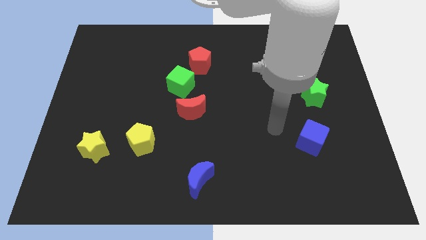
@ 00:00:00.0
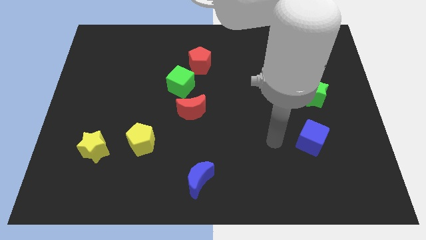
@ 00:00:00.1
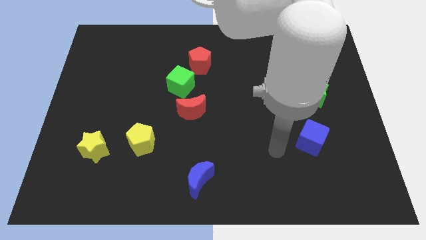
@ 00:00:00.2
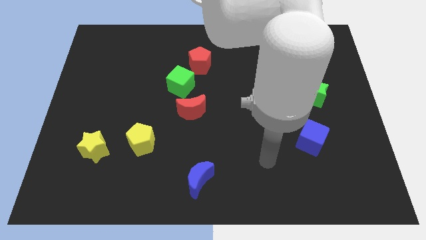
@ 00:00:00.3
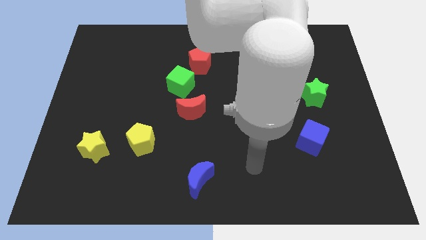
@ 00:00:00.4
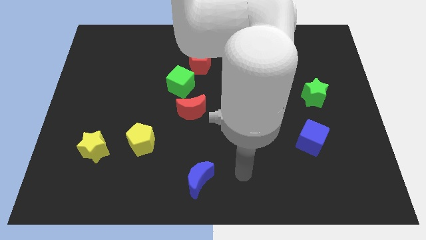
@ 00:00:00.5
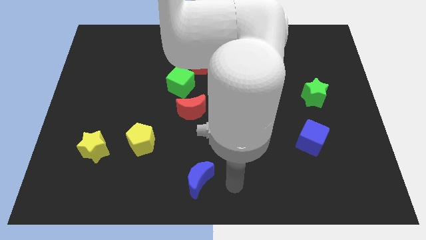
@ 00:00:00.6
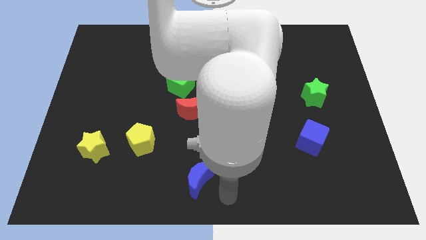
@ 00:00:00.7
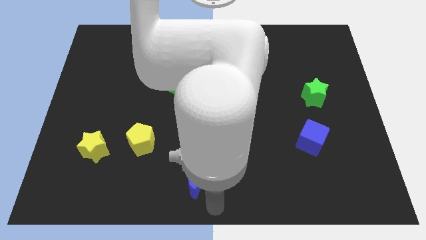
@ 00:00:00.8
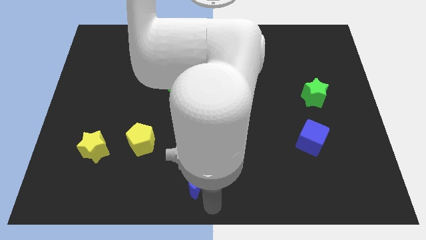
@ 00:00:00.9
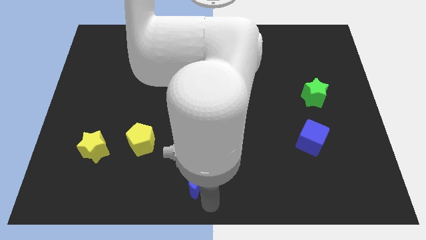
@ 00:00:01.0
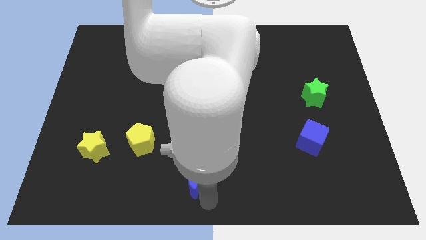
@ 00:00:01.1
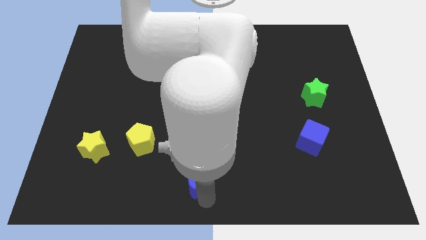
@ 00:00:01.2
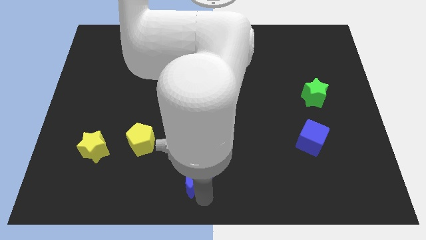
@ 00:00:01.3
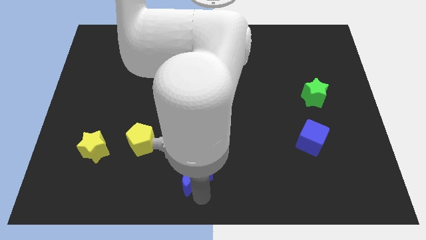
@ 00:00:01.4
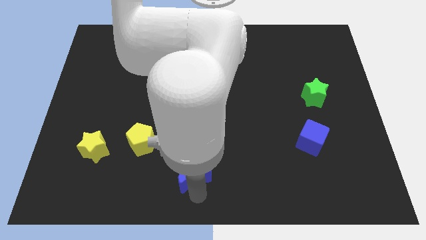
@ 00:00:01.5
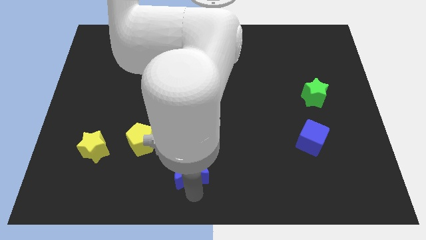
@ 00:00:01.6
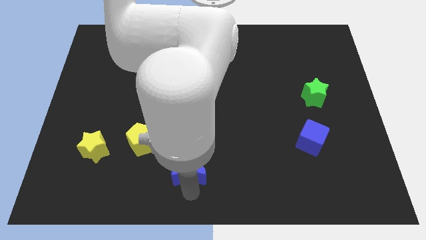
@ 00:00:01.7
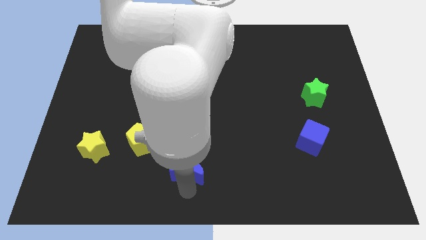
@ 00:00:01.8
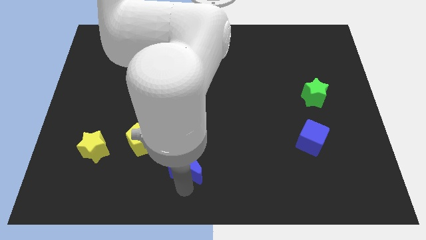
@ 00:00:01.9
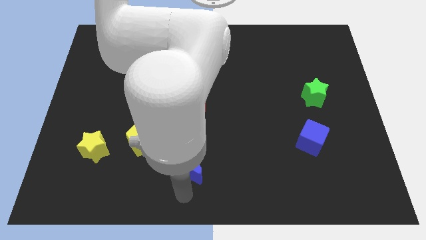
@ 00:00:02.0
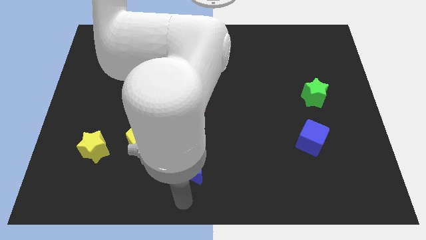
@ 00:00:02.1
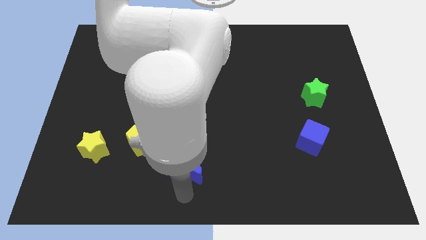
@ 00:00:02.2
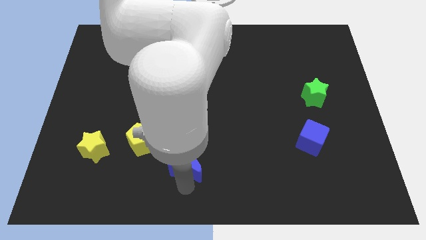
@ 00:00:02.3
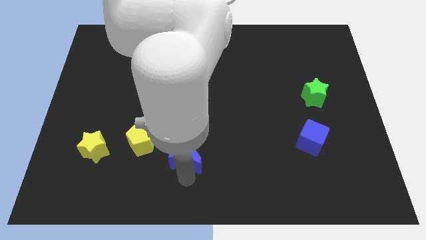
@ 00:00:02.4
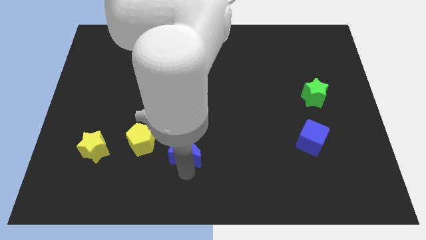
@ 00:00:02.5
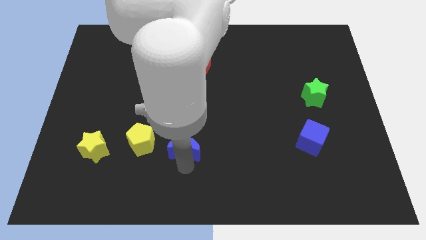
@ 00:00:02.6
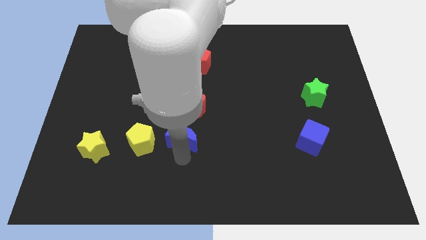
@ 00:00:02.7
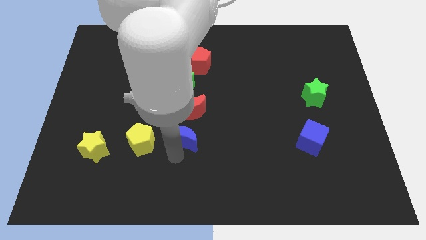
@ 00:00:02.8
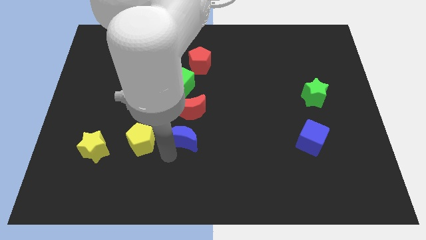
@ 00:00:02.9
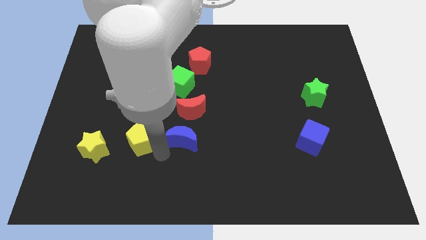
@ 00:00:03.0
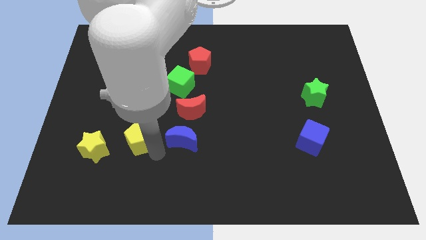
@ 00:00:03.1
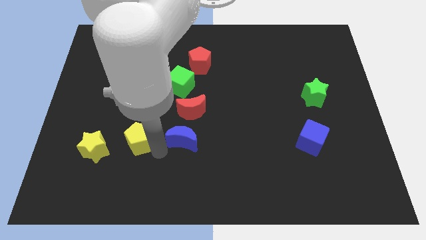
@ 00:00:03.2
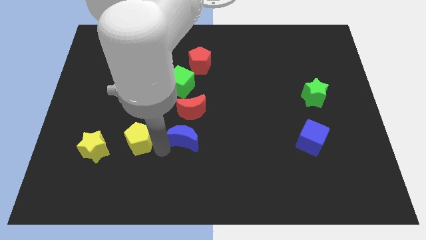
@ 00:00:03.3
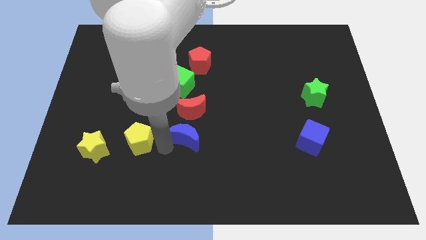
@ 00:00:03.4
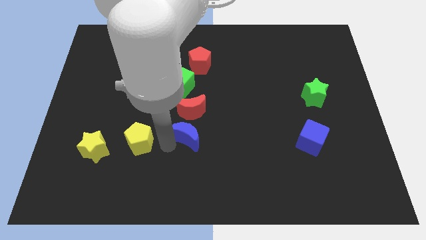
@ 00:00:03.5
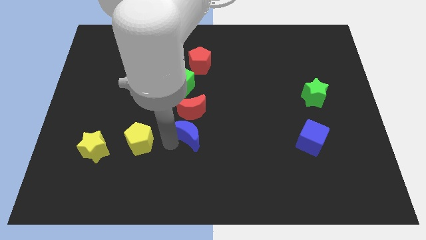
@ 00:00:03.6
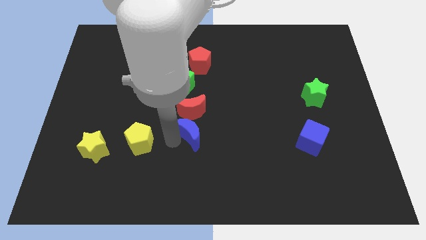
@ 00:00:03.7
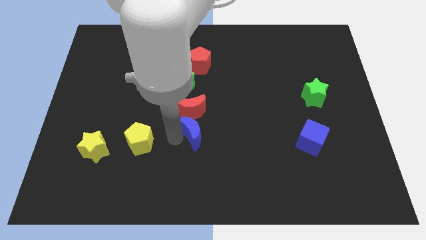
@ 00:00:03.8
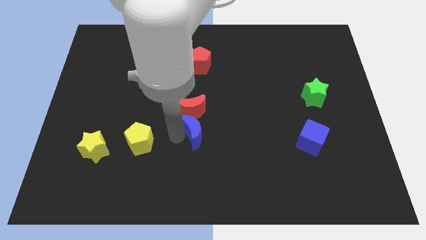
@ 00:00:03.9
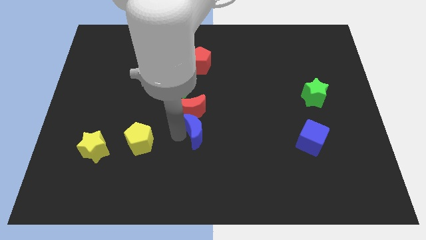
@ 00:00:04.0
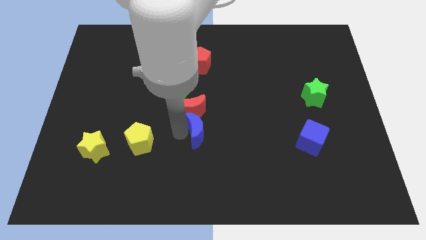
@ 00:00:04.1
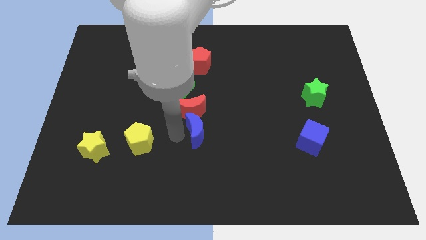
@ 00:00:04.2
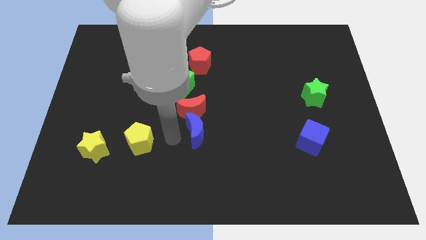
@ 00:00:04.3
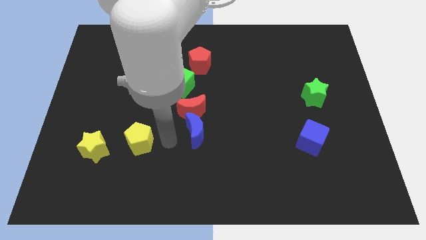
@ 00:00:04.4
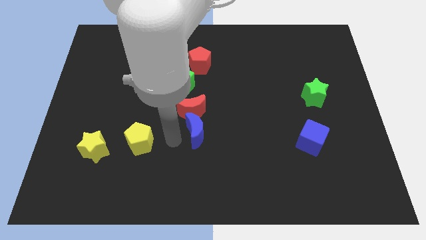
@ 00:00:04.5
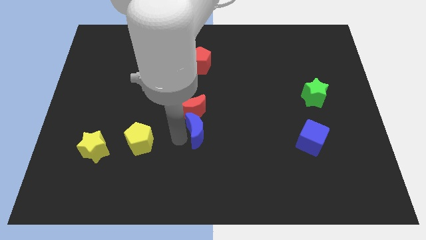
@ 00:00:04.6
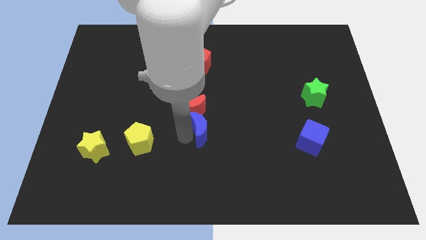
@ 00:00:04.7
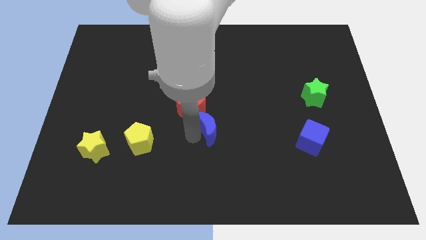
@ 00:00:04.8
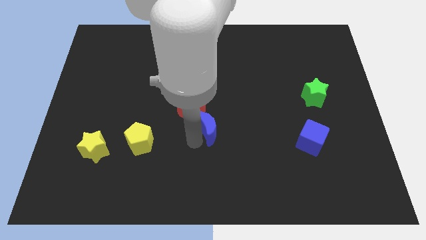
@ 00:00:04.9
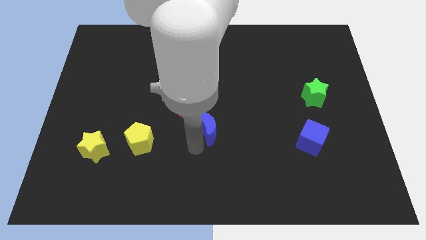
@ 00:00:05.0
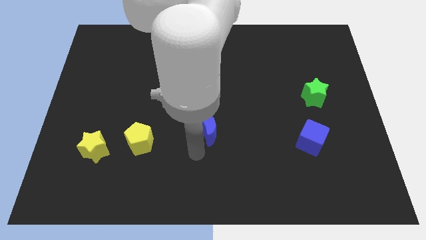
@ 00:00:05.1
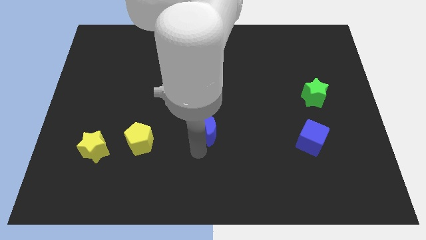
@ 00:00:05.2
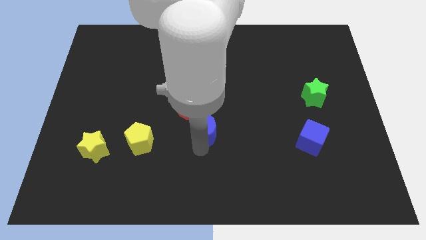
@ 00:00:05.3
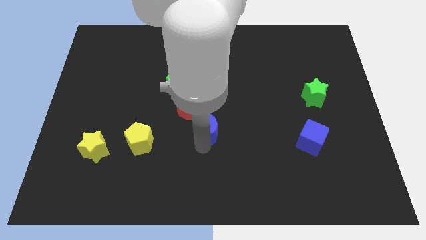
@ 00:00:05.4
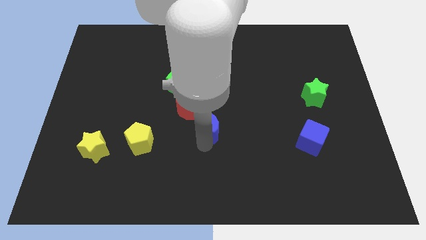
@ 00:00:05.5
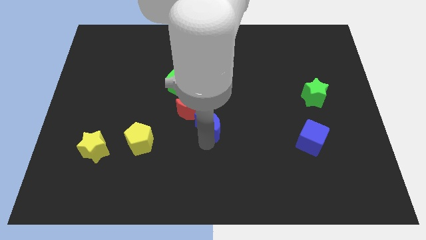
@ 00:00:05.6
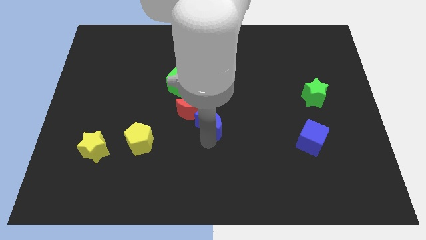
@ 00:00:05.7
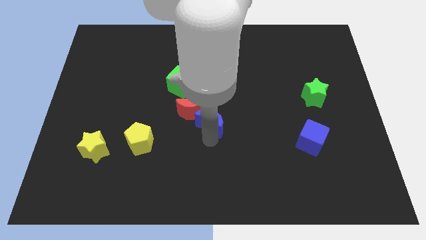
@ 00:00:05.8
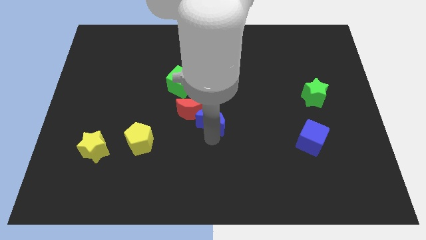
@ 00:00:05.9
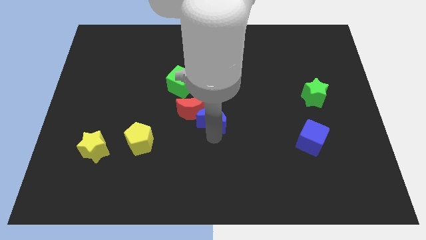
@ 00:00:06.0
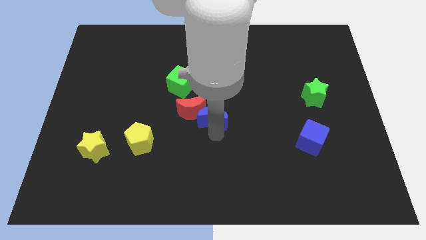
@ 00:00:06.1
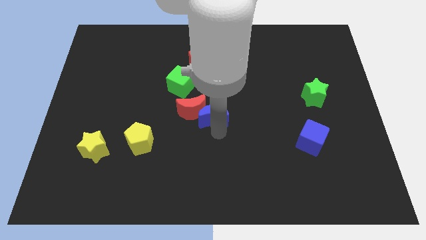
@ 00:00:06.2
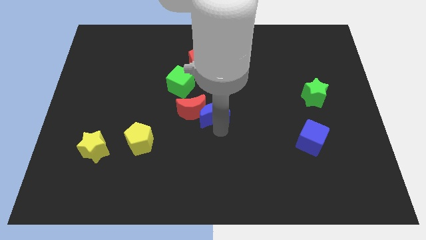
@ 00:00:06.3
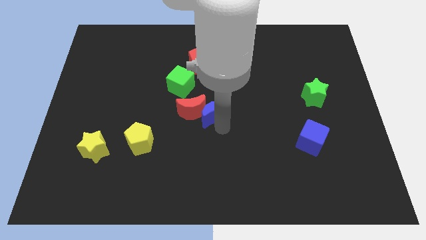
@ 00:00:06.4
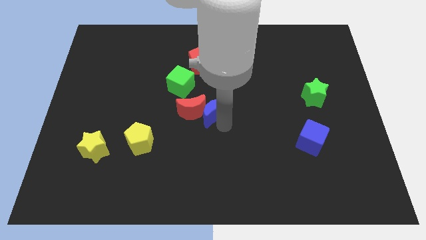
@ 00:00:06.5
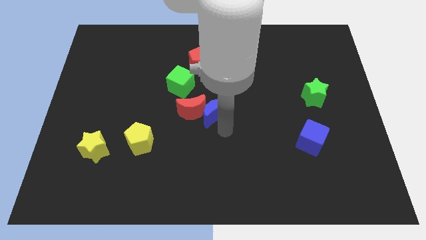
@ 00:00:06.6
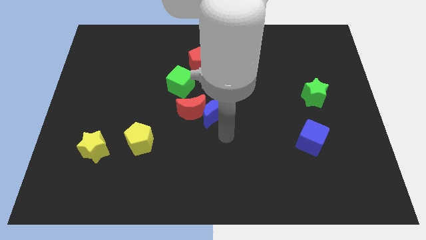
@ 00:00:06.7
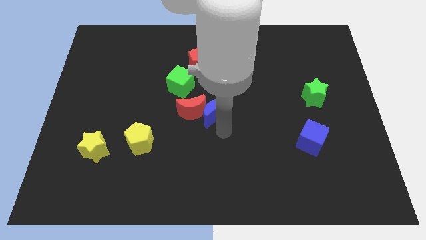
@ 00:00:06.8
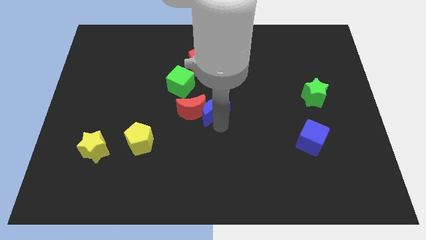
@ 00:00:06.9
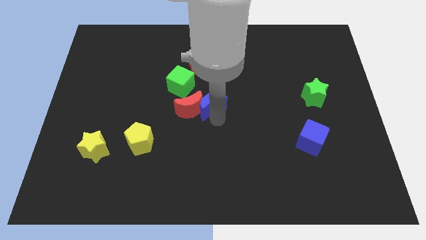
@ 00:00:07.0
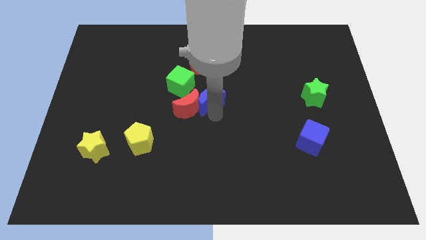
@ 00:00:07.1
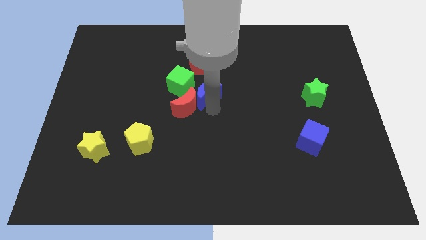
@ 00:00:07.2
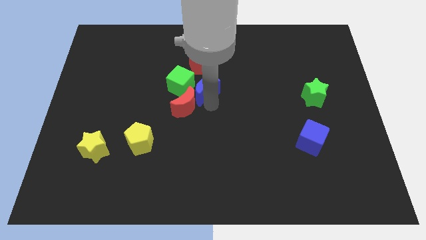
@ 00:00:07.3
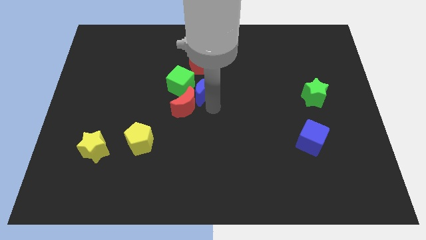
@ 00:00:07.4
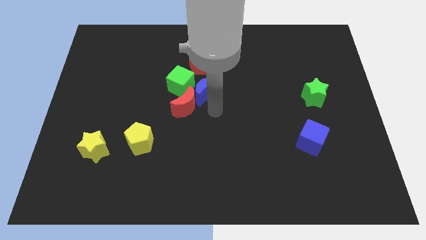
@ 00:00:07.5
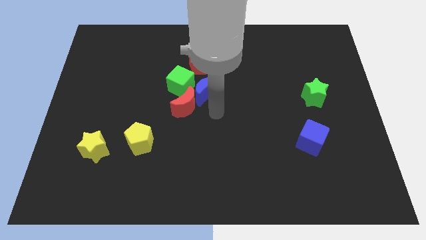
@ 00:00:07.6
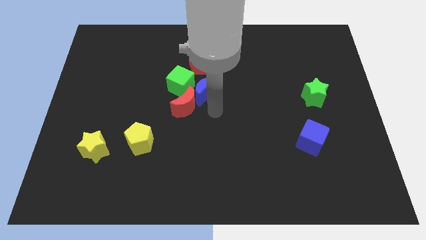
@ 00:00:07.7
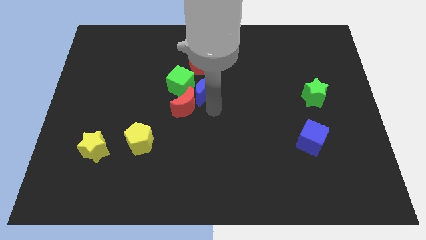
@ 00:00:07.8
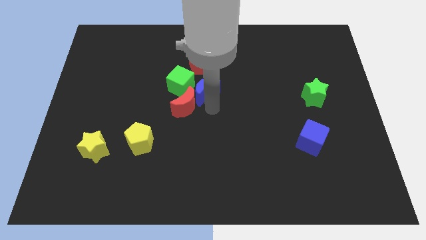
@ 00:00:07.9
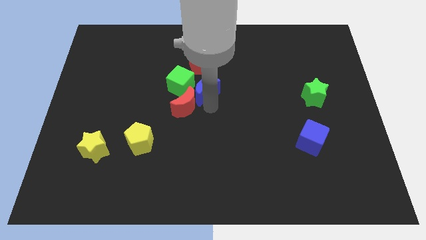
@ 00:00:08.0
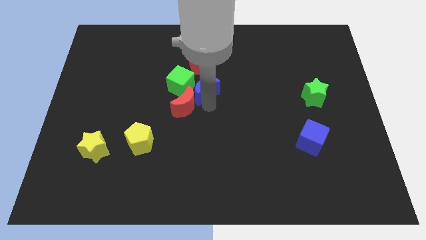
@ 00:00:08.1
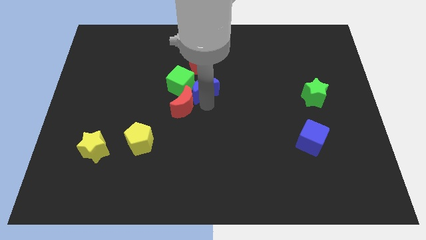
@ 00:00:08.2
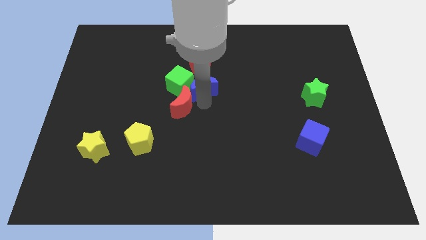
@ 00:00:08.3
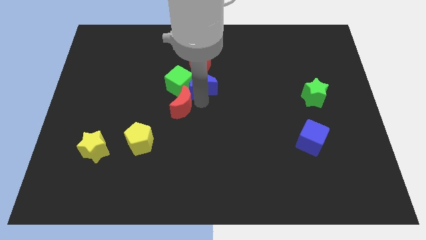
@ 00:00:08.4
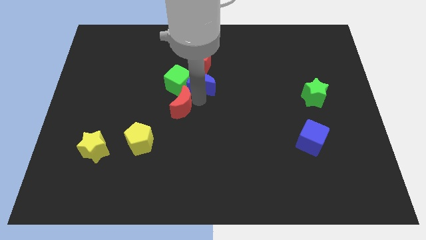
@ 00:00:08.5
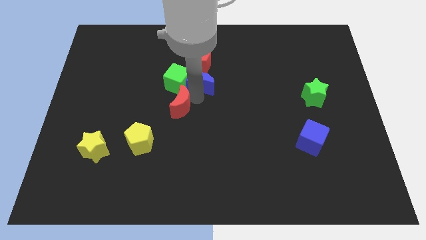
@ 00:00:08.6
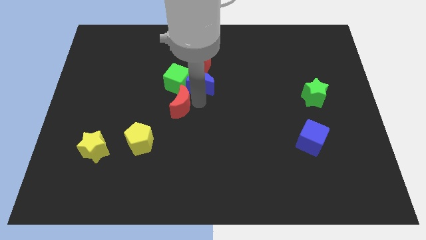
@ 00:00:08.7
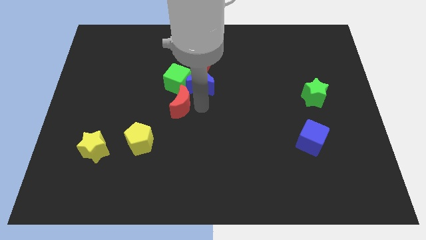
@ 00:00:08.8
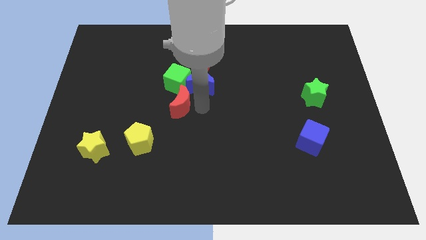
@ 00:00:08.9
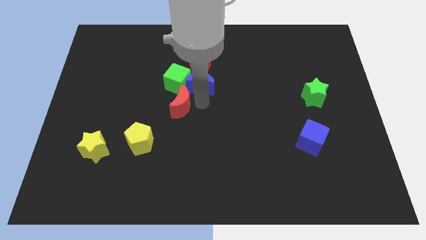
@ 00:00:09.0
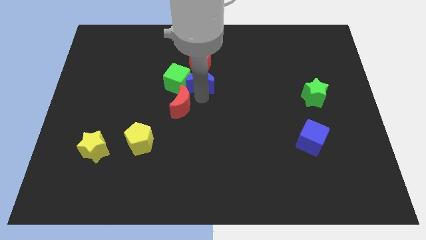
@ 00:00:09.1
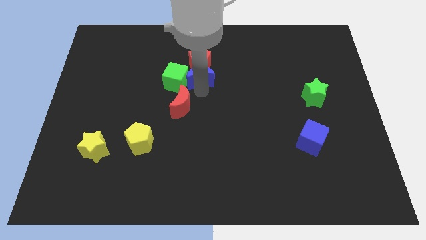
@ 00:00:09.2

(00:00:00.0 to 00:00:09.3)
slide the blue moon to the red pentagon
